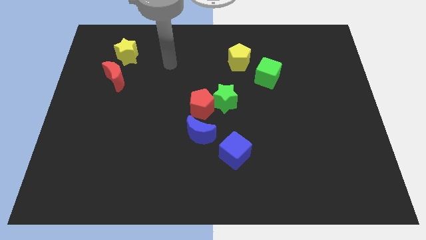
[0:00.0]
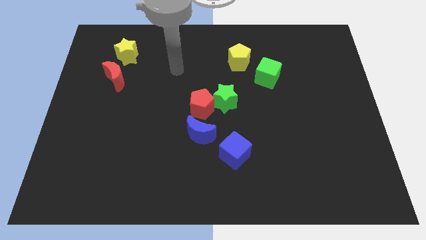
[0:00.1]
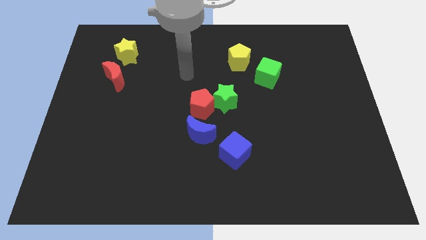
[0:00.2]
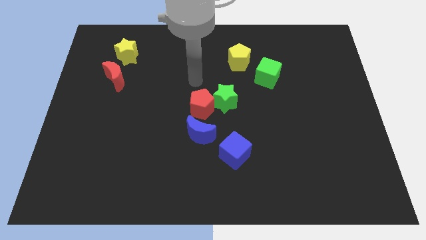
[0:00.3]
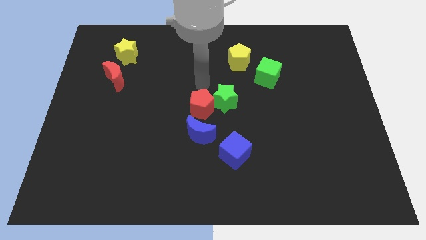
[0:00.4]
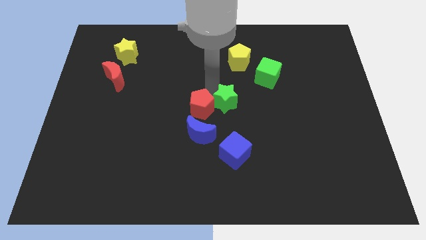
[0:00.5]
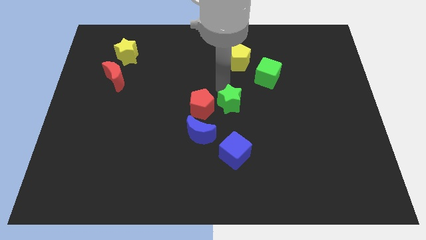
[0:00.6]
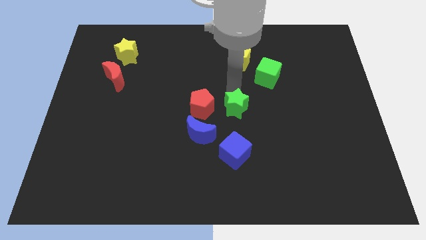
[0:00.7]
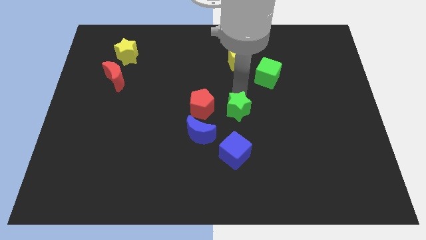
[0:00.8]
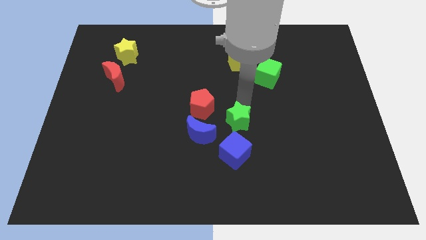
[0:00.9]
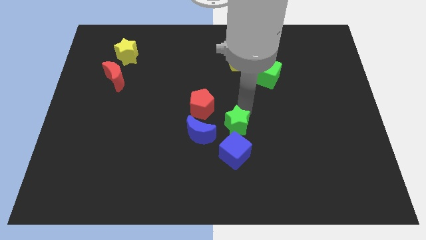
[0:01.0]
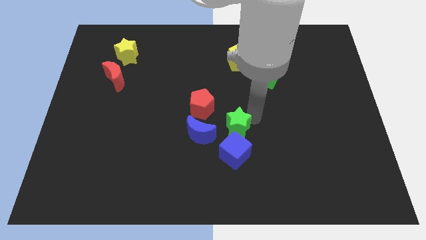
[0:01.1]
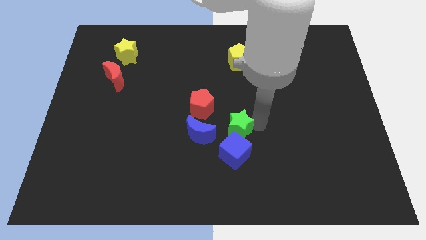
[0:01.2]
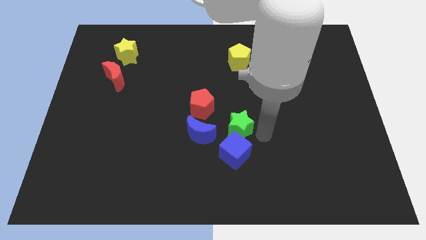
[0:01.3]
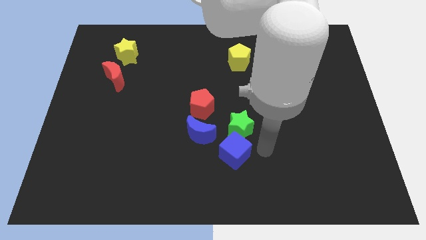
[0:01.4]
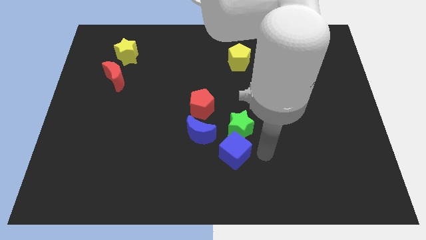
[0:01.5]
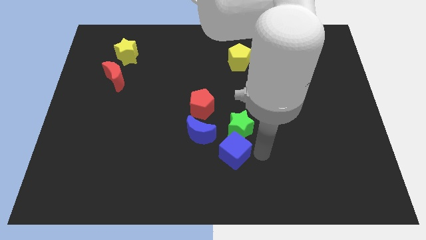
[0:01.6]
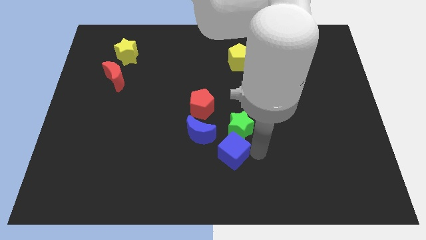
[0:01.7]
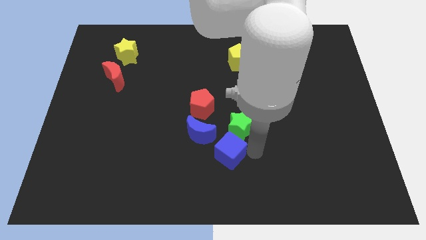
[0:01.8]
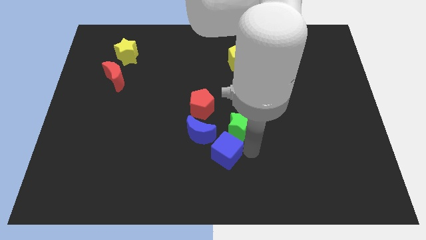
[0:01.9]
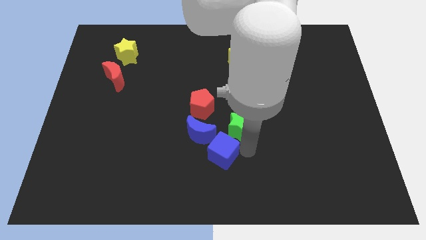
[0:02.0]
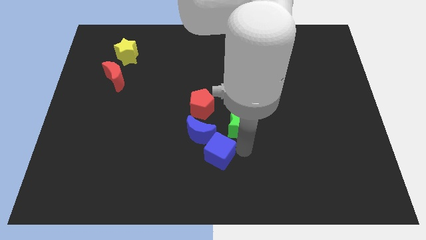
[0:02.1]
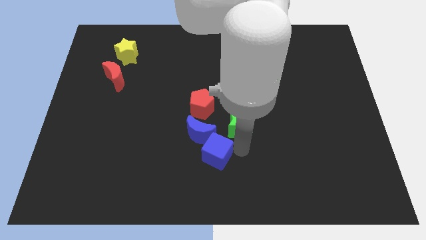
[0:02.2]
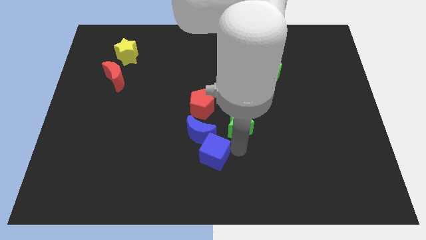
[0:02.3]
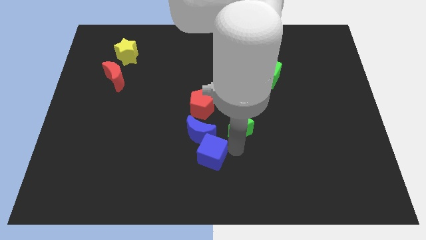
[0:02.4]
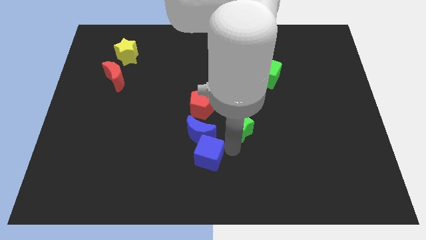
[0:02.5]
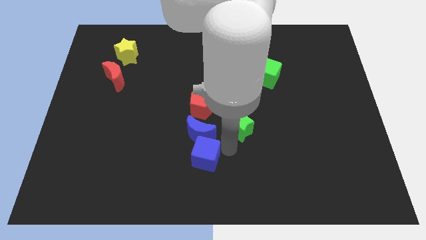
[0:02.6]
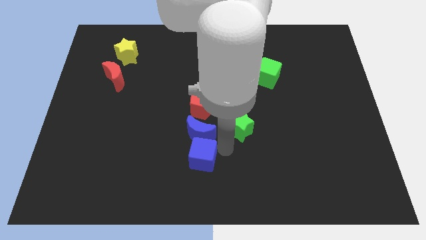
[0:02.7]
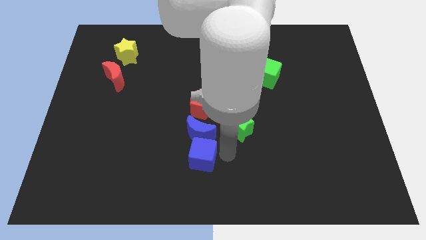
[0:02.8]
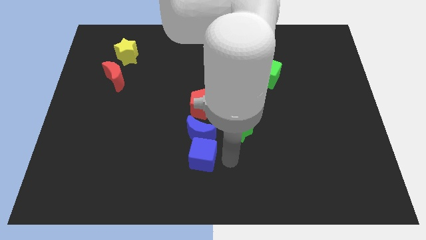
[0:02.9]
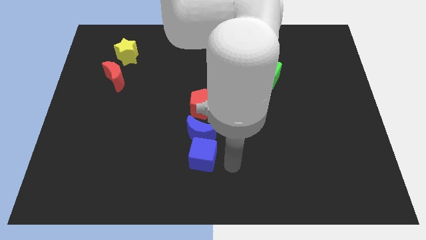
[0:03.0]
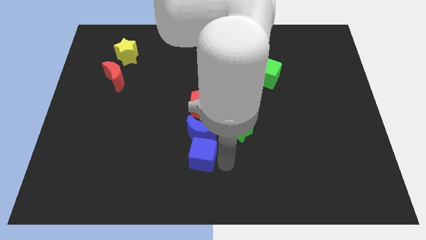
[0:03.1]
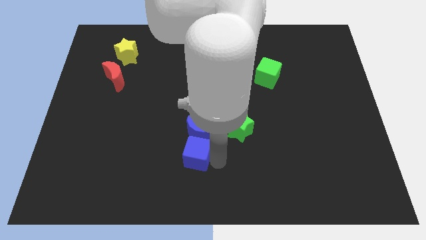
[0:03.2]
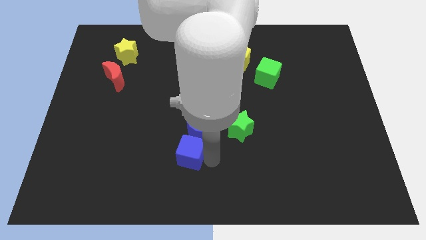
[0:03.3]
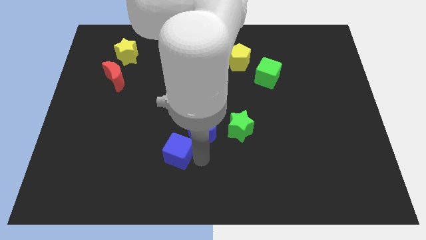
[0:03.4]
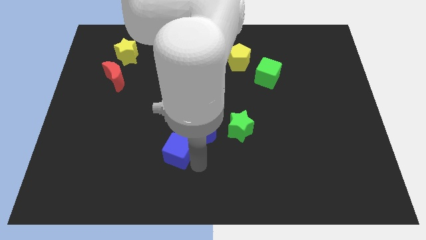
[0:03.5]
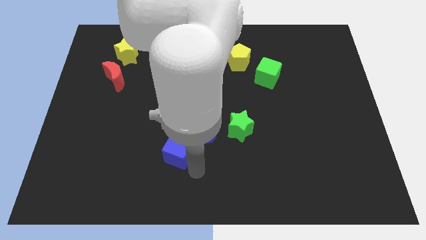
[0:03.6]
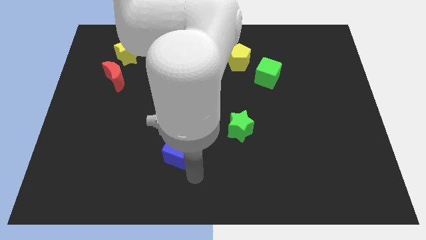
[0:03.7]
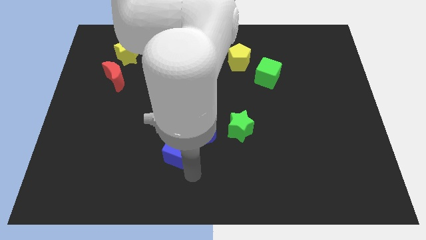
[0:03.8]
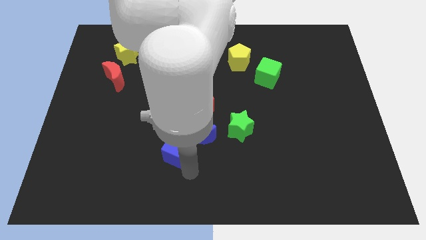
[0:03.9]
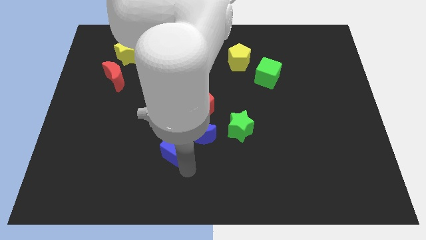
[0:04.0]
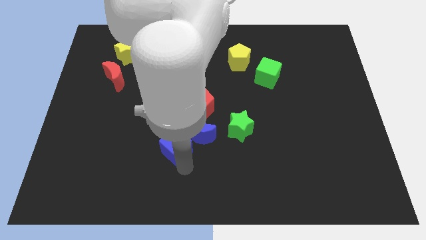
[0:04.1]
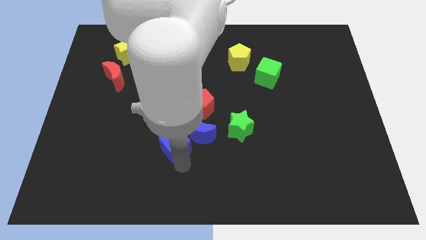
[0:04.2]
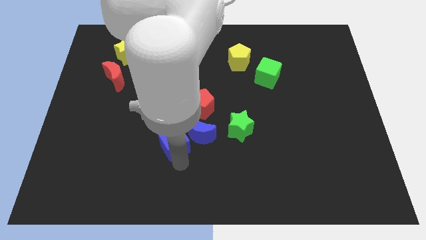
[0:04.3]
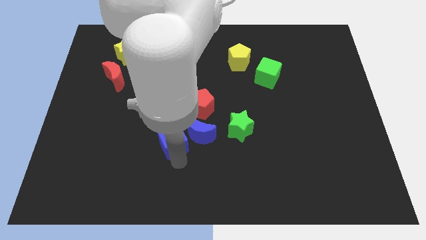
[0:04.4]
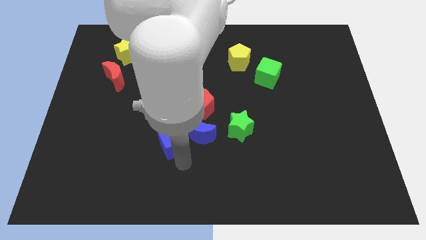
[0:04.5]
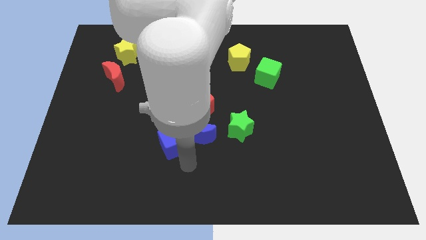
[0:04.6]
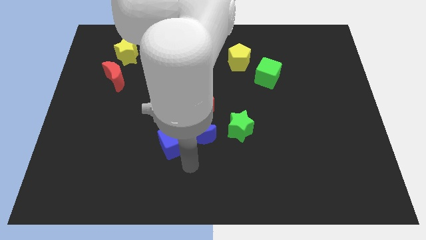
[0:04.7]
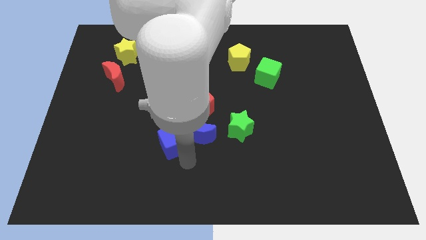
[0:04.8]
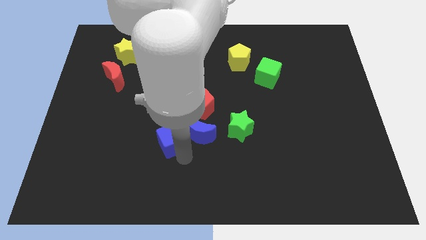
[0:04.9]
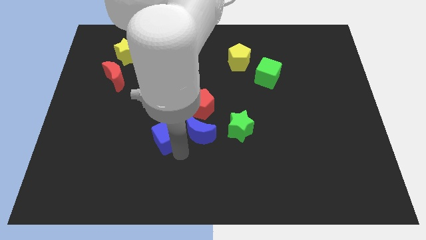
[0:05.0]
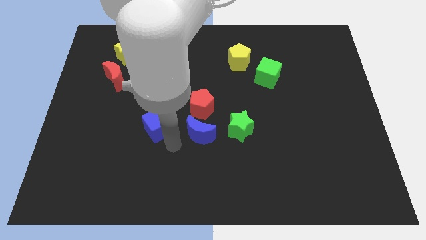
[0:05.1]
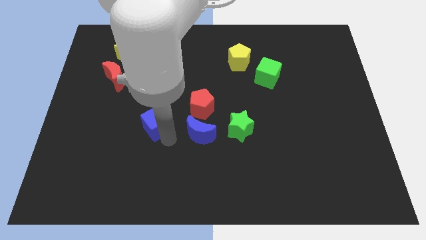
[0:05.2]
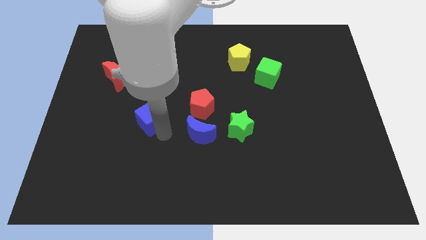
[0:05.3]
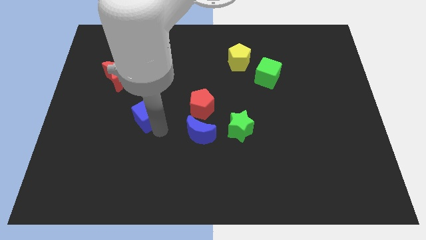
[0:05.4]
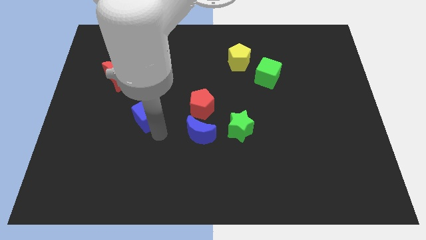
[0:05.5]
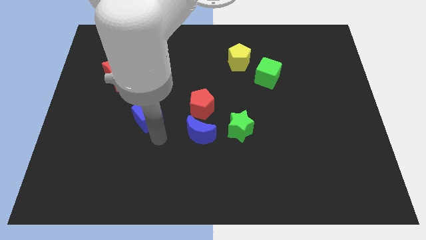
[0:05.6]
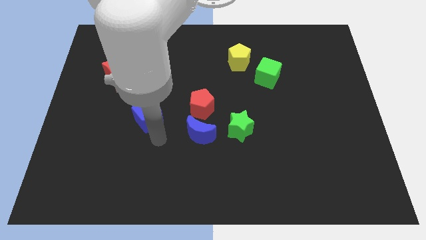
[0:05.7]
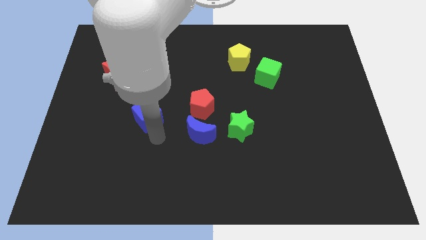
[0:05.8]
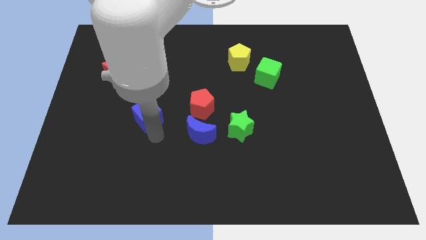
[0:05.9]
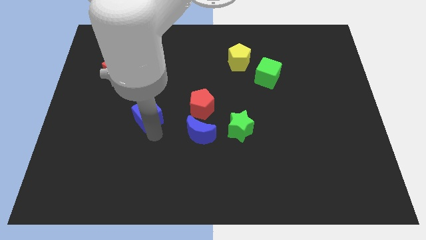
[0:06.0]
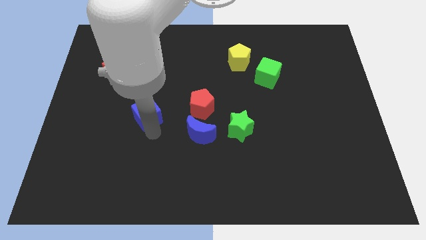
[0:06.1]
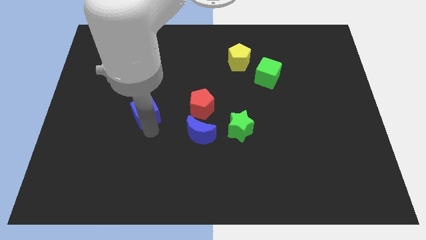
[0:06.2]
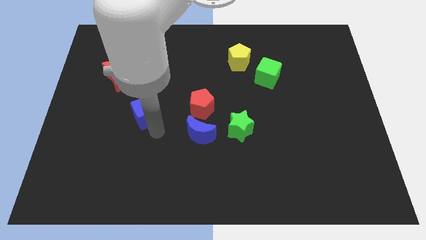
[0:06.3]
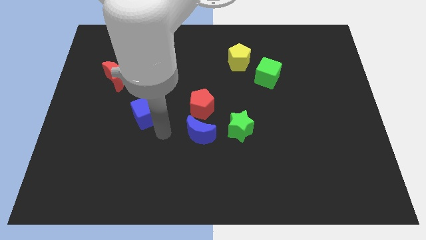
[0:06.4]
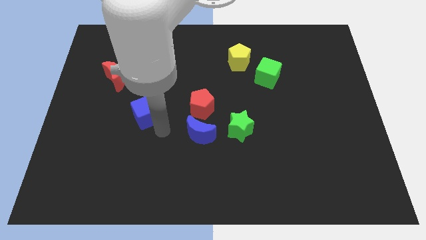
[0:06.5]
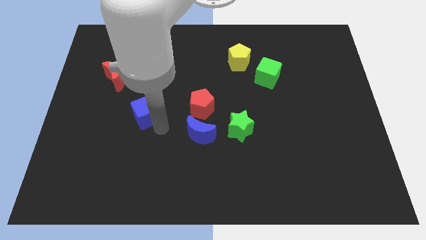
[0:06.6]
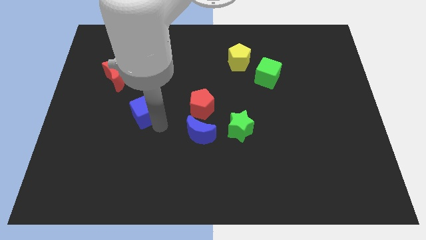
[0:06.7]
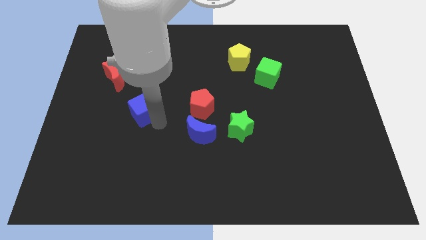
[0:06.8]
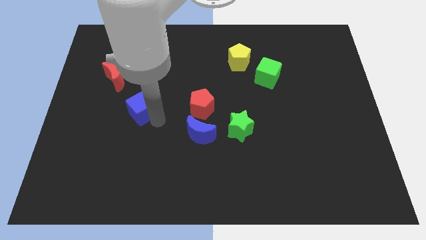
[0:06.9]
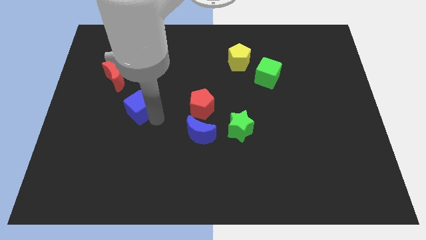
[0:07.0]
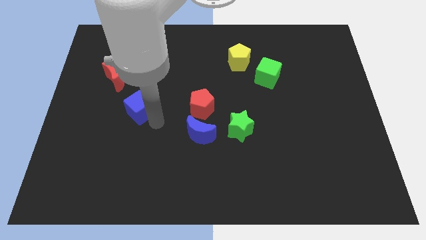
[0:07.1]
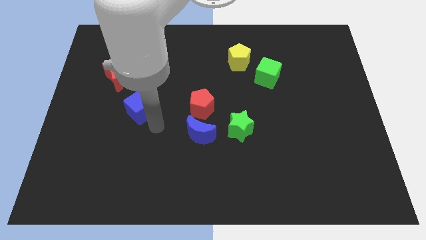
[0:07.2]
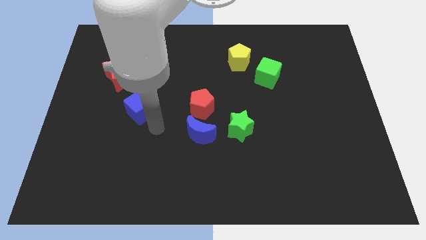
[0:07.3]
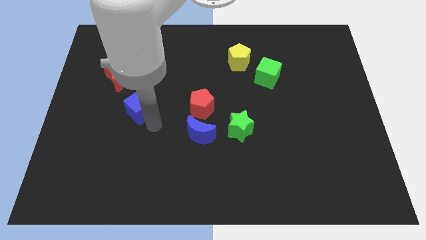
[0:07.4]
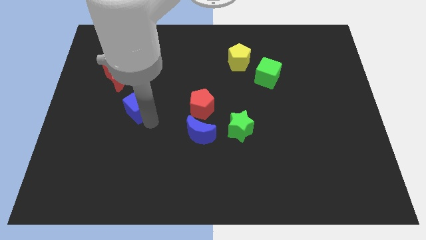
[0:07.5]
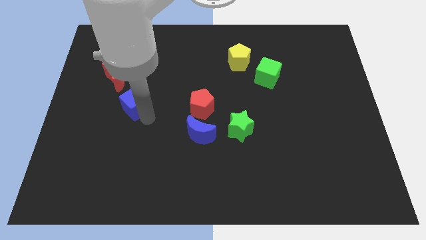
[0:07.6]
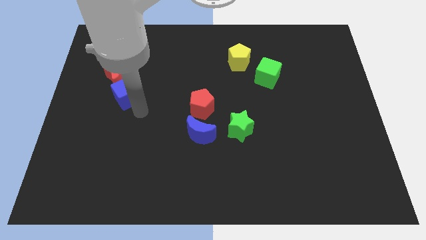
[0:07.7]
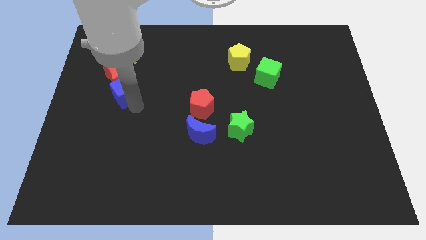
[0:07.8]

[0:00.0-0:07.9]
slide the blue cube next to the red moon
